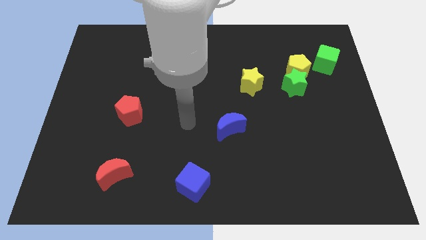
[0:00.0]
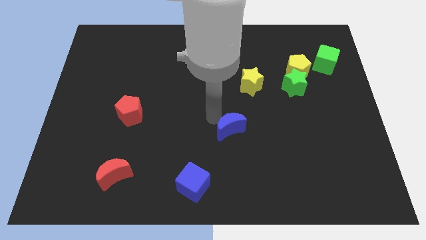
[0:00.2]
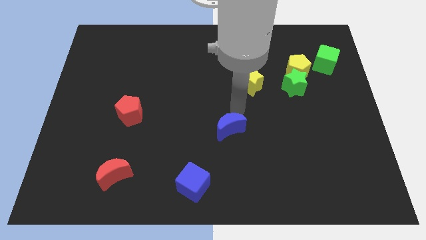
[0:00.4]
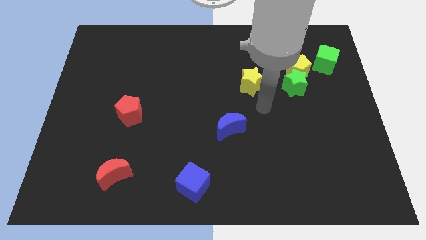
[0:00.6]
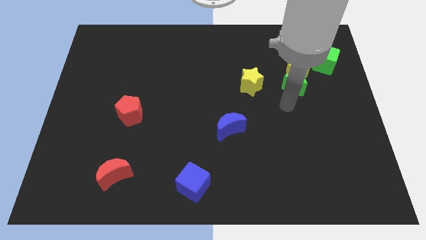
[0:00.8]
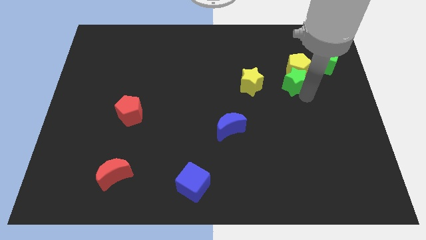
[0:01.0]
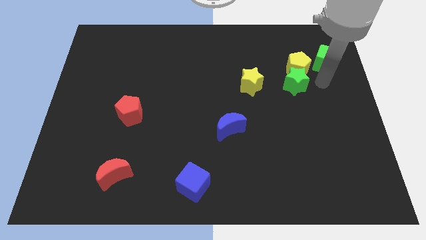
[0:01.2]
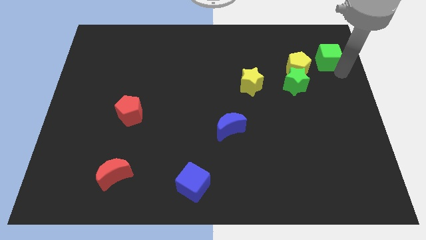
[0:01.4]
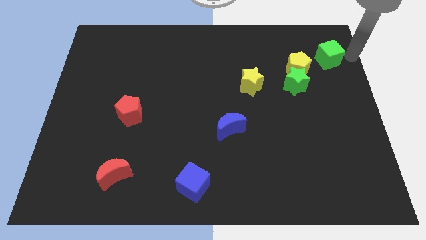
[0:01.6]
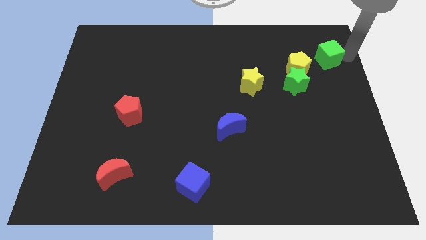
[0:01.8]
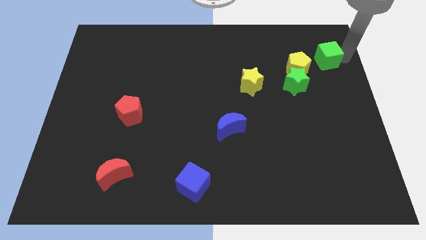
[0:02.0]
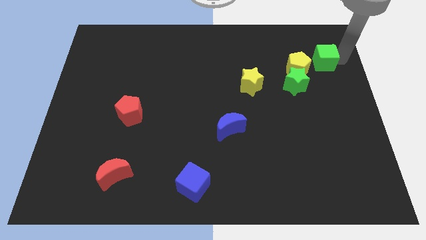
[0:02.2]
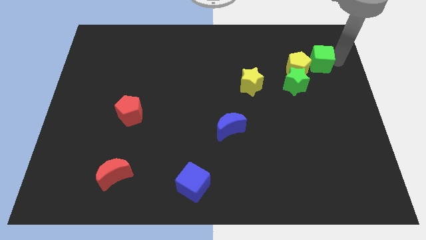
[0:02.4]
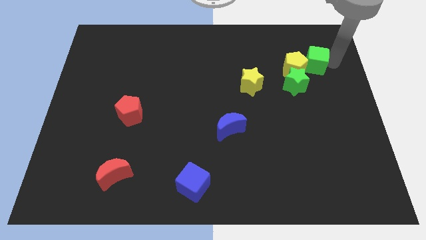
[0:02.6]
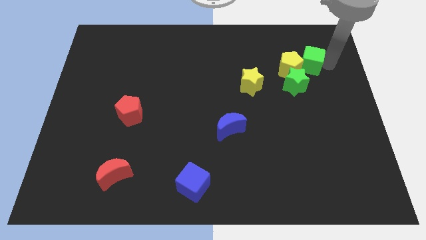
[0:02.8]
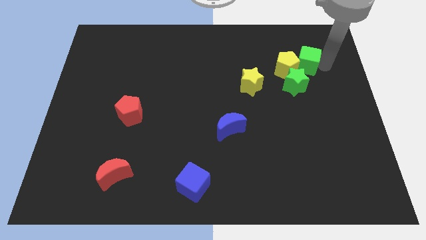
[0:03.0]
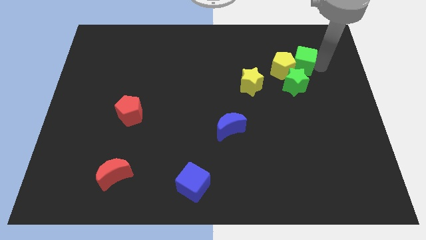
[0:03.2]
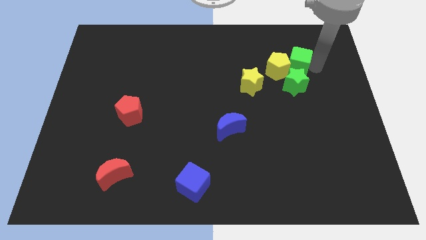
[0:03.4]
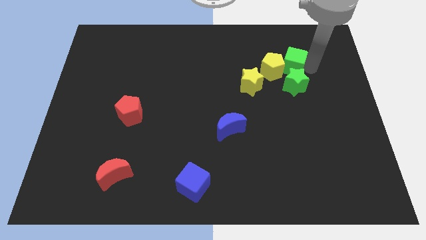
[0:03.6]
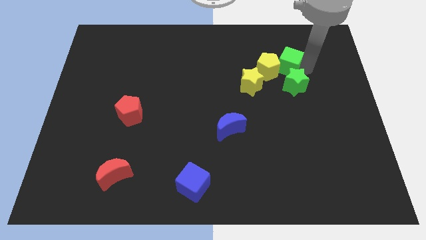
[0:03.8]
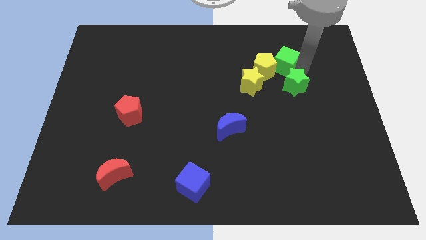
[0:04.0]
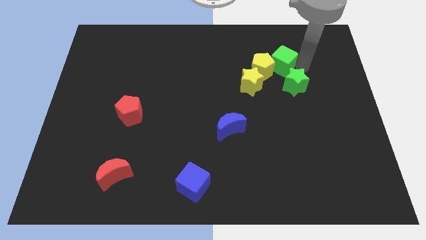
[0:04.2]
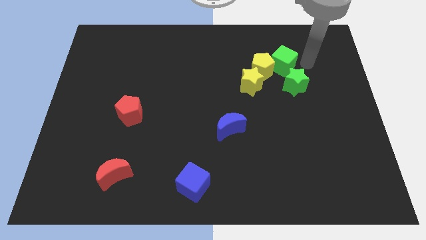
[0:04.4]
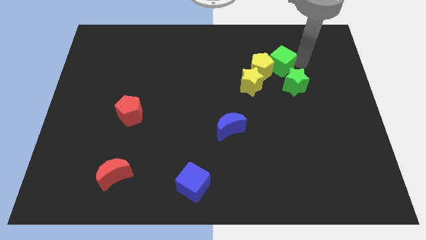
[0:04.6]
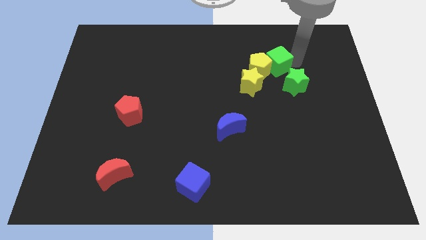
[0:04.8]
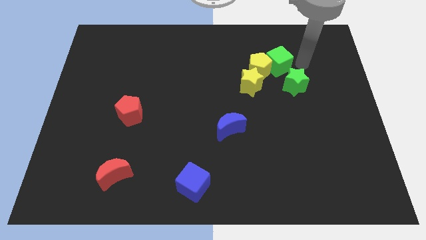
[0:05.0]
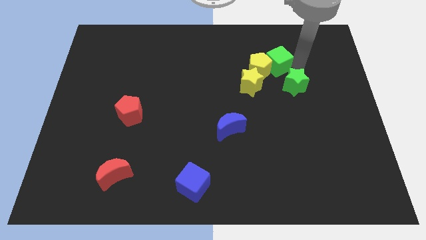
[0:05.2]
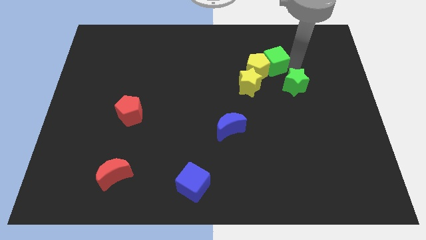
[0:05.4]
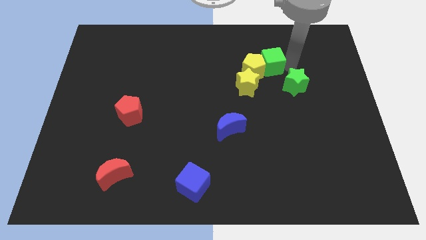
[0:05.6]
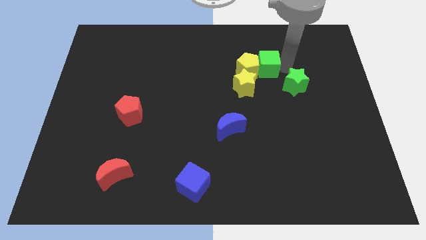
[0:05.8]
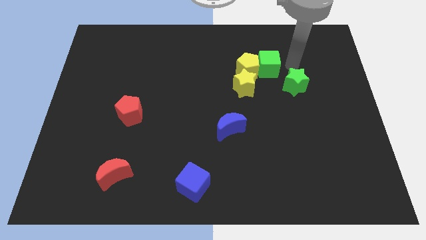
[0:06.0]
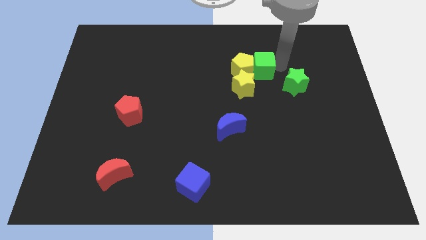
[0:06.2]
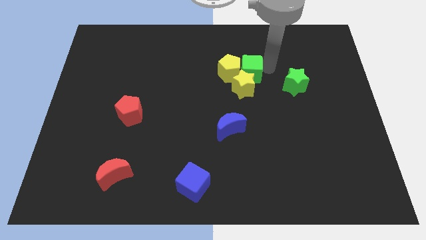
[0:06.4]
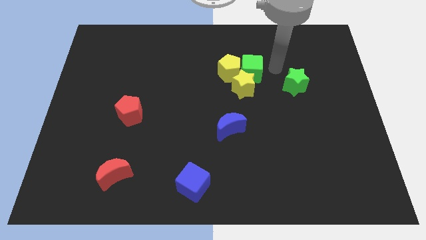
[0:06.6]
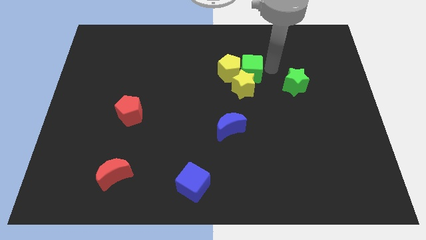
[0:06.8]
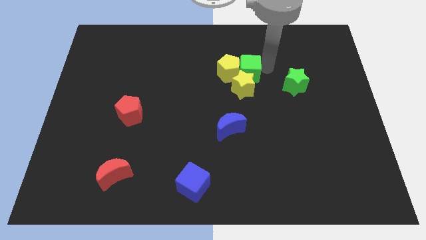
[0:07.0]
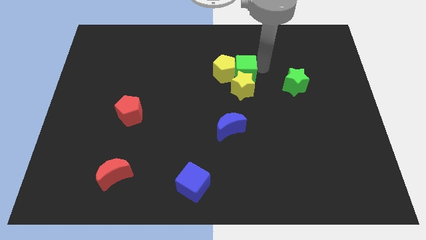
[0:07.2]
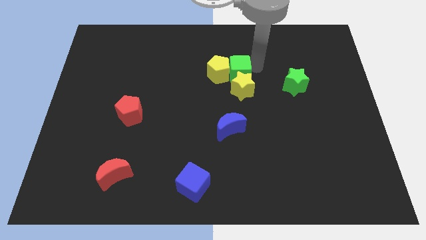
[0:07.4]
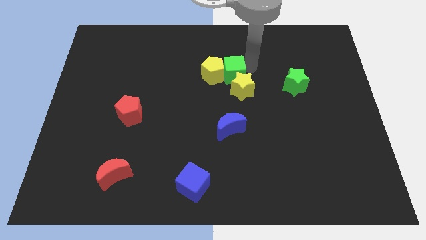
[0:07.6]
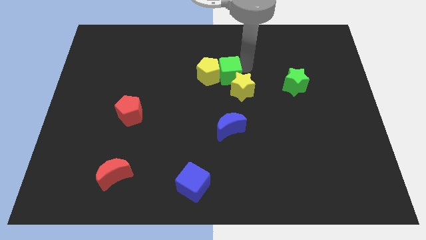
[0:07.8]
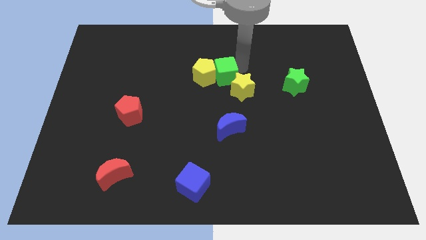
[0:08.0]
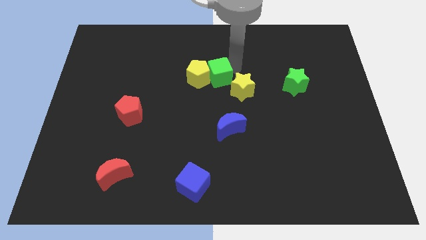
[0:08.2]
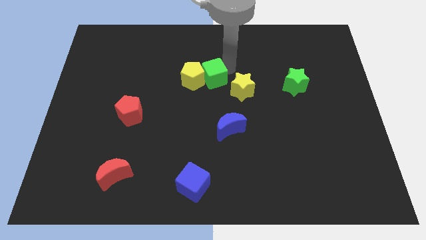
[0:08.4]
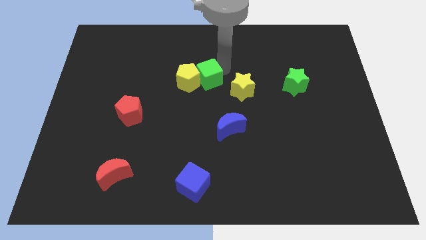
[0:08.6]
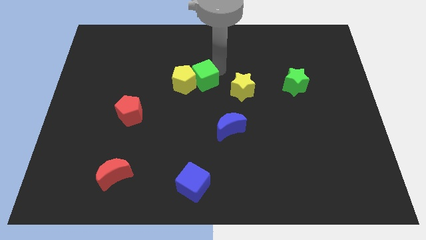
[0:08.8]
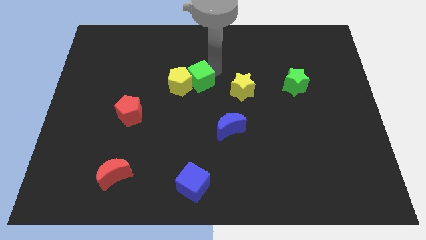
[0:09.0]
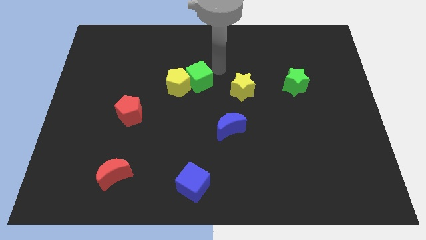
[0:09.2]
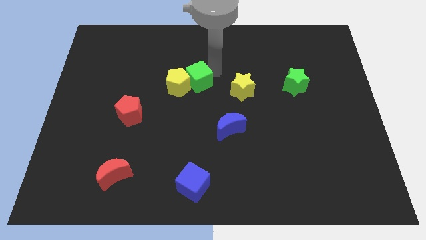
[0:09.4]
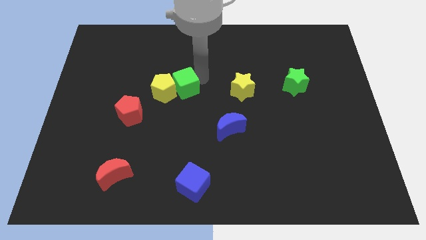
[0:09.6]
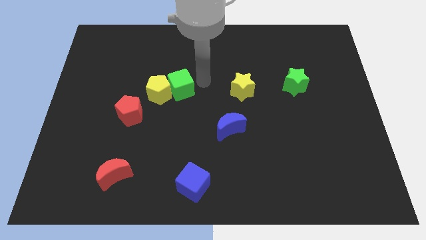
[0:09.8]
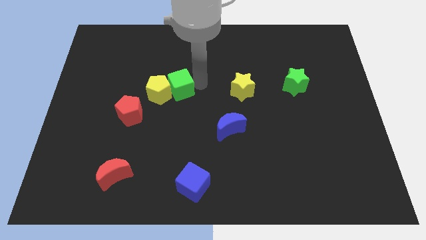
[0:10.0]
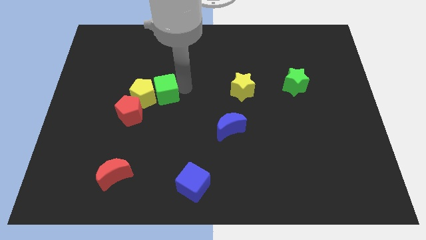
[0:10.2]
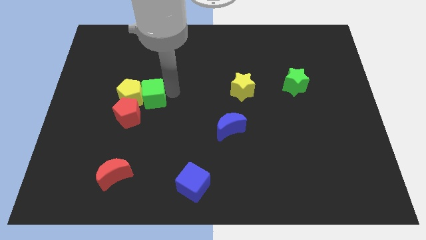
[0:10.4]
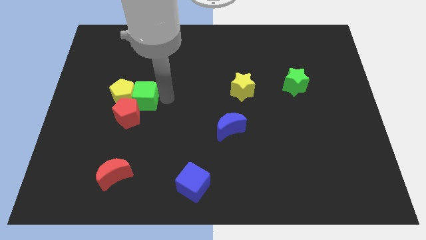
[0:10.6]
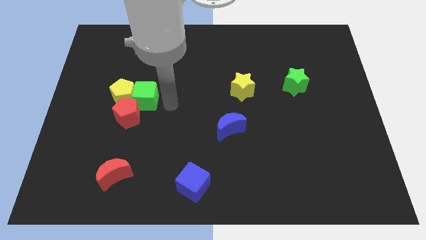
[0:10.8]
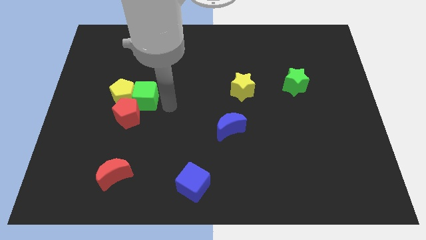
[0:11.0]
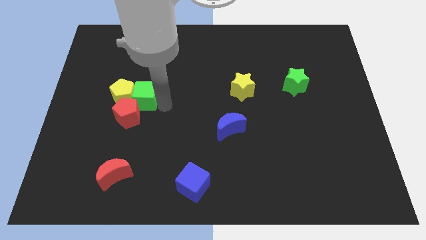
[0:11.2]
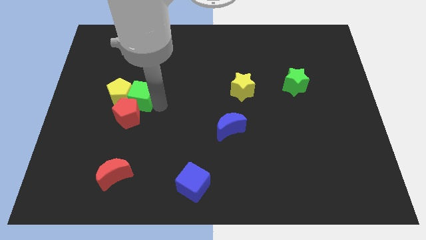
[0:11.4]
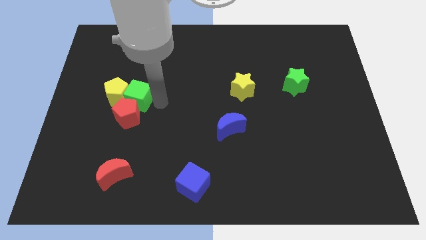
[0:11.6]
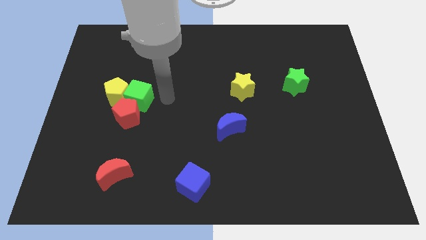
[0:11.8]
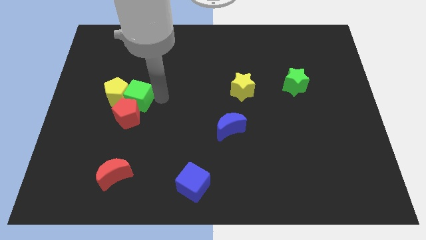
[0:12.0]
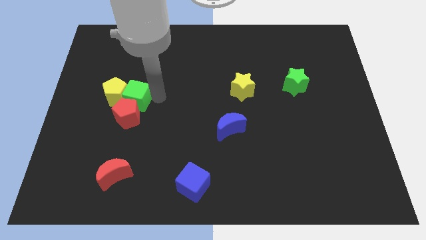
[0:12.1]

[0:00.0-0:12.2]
slide the green cube to the top left of the red pentagon

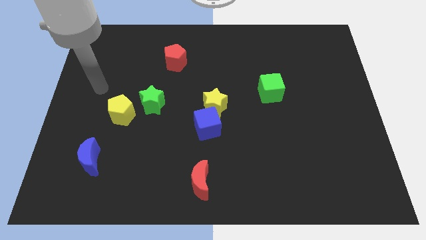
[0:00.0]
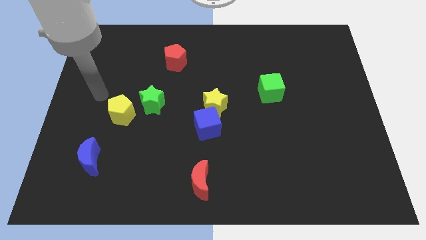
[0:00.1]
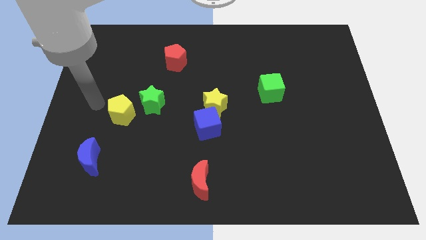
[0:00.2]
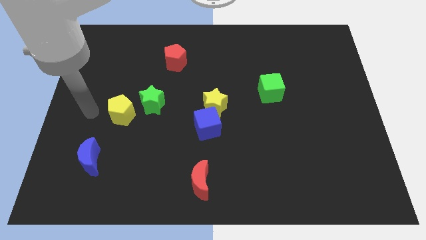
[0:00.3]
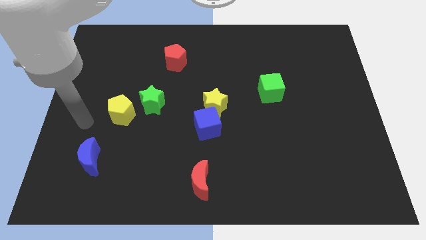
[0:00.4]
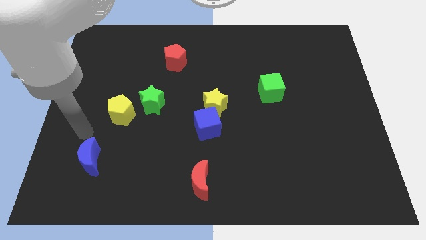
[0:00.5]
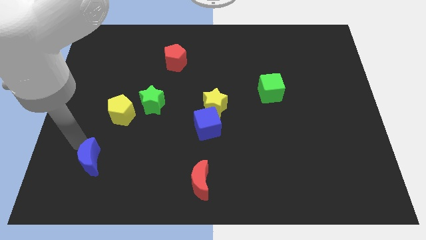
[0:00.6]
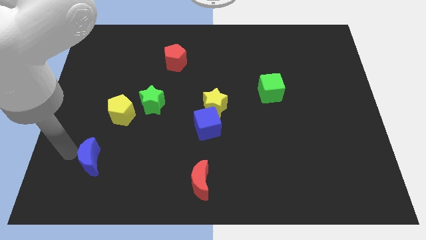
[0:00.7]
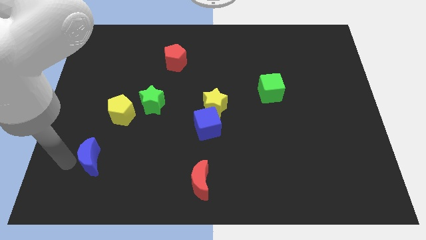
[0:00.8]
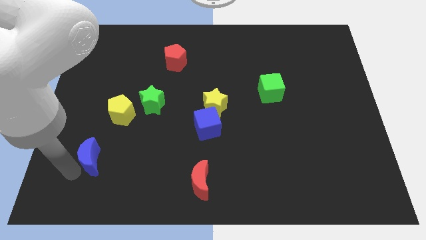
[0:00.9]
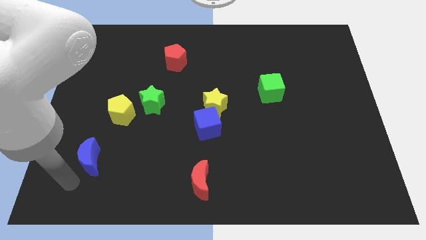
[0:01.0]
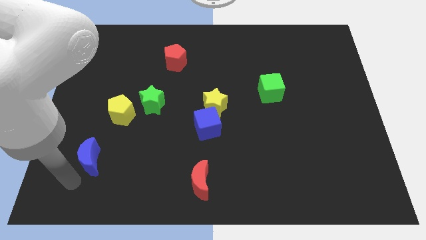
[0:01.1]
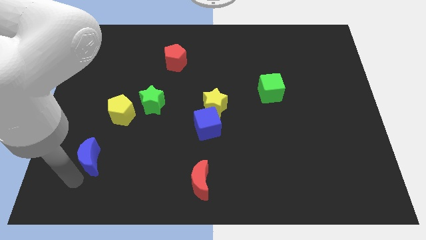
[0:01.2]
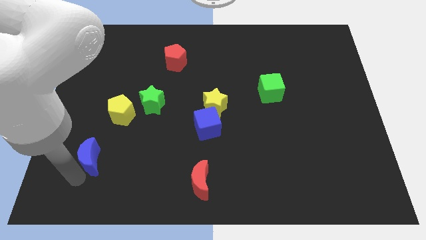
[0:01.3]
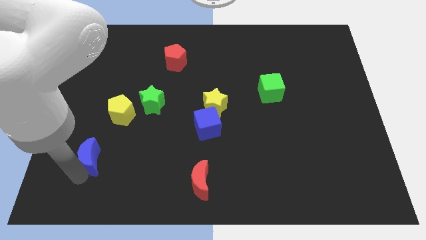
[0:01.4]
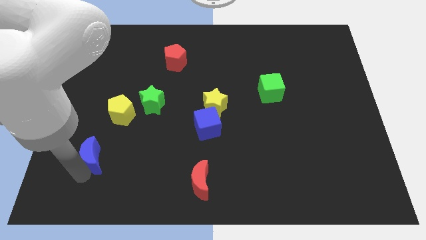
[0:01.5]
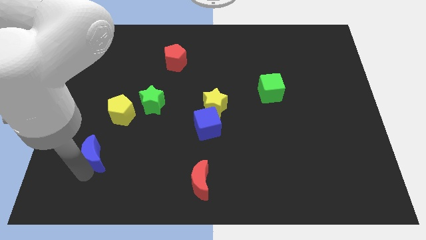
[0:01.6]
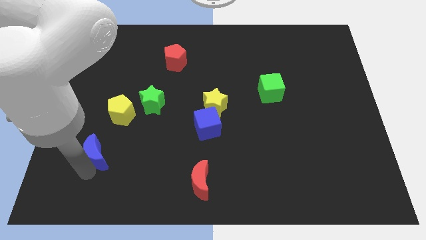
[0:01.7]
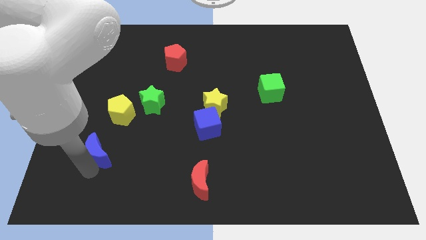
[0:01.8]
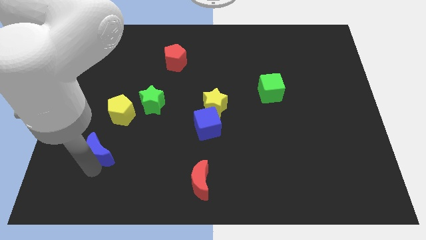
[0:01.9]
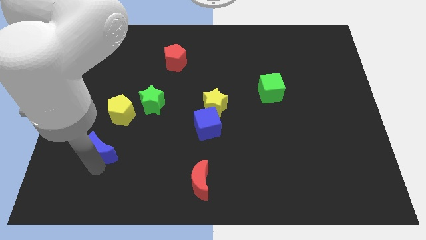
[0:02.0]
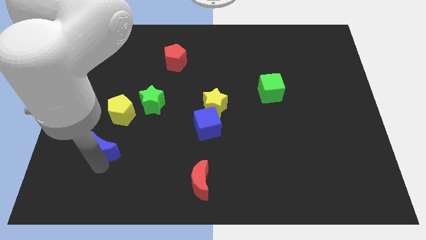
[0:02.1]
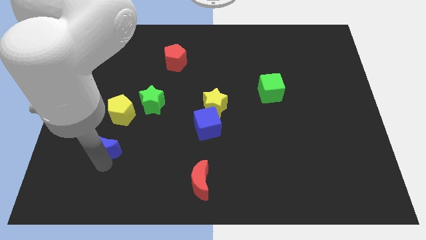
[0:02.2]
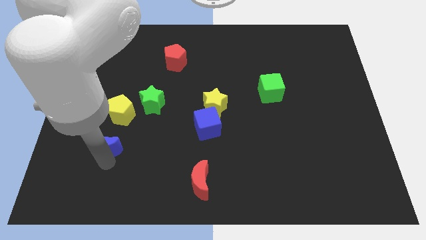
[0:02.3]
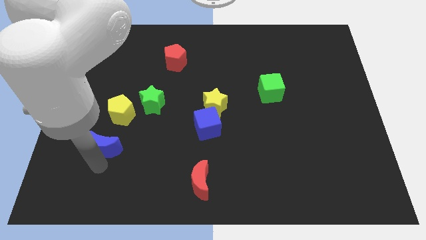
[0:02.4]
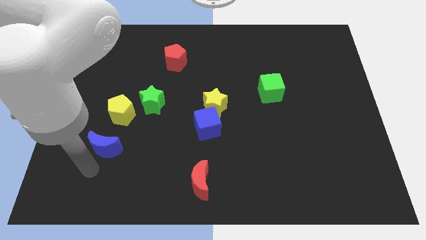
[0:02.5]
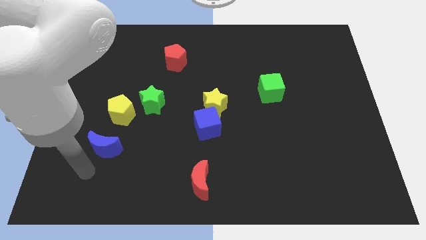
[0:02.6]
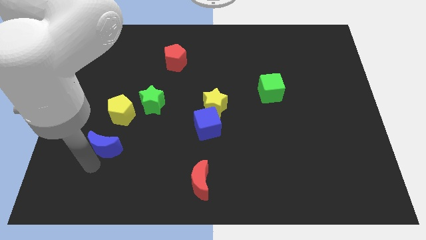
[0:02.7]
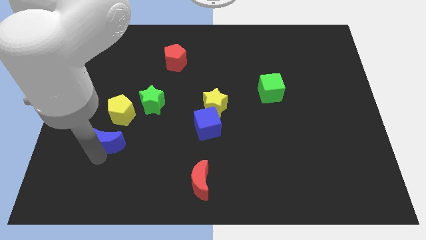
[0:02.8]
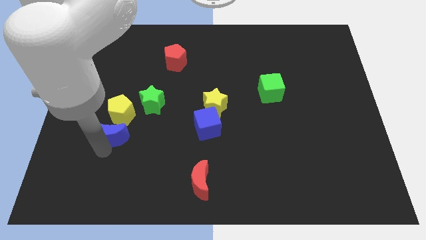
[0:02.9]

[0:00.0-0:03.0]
move the blue moon to the bottom left side of the green star
